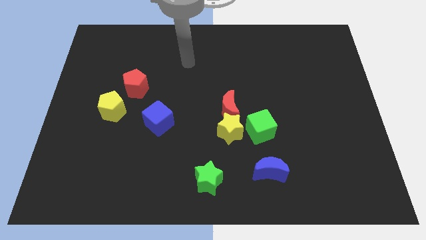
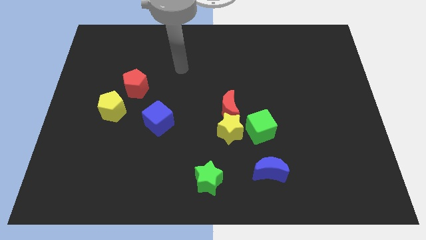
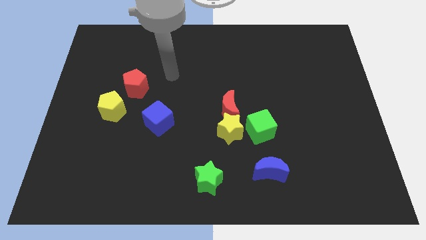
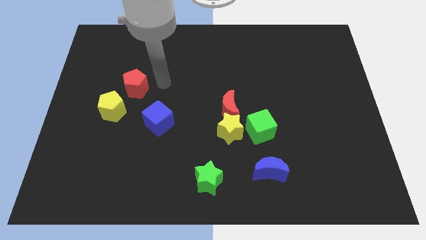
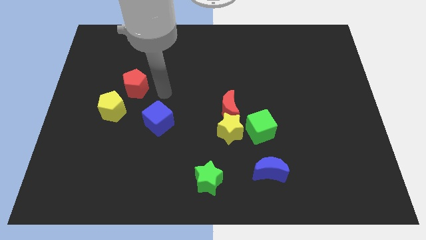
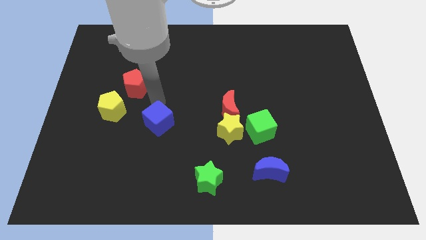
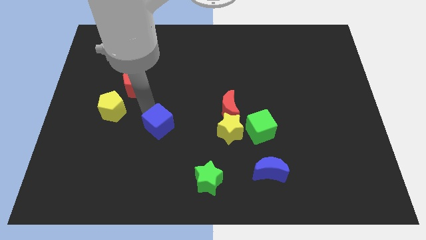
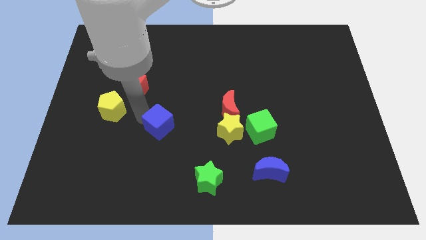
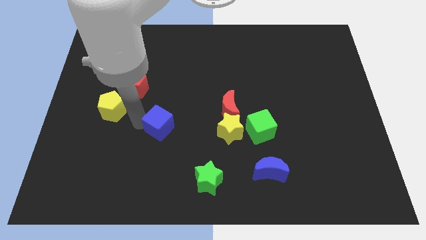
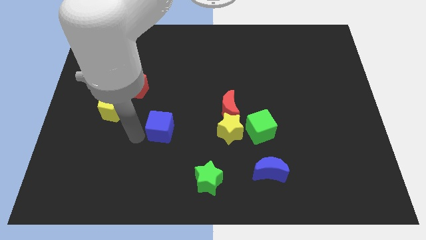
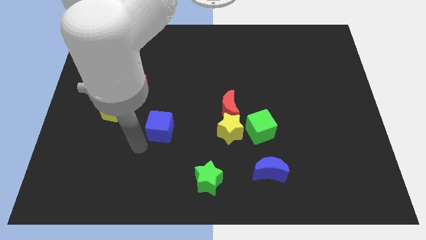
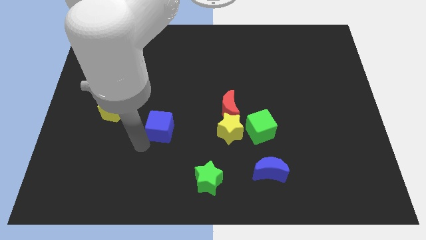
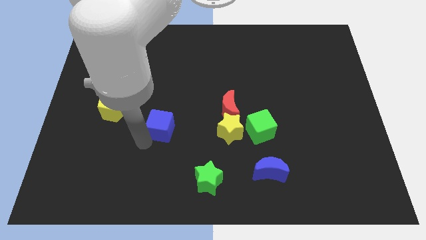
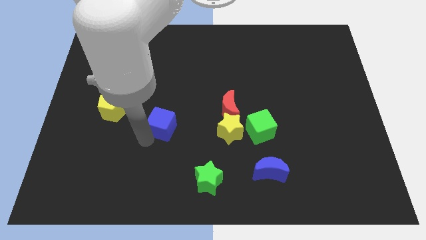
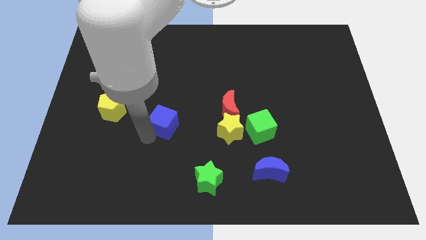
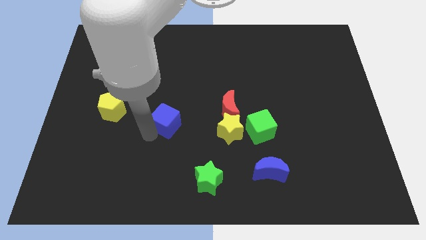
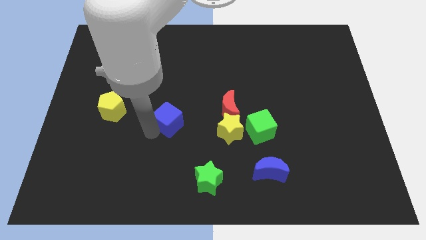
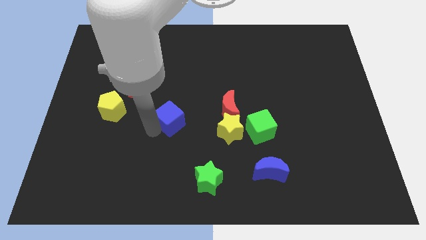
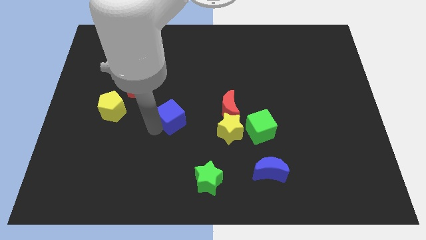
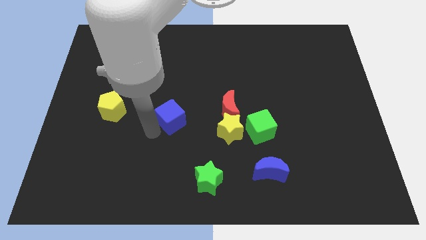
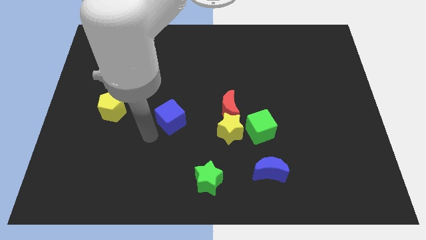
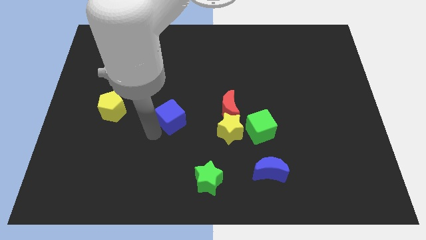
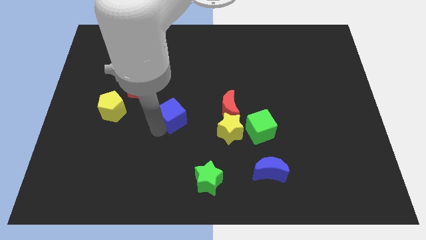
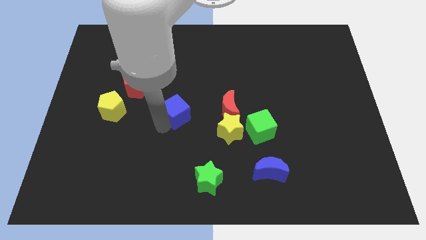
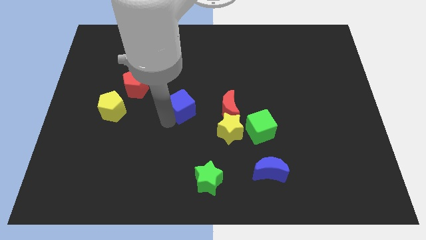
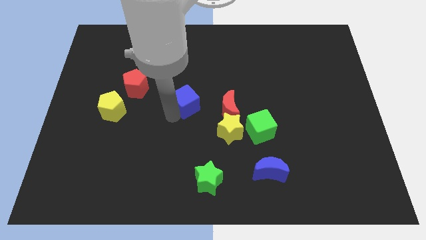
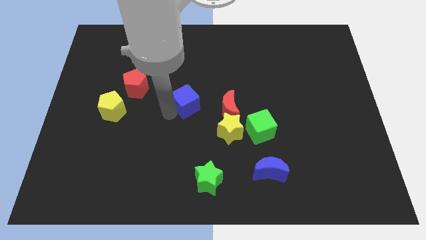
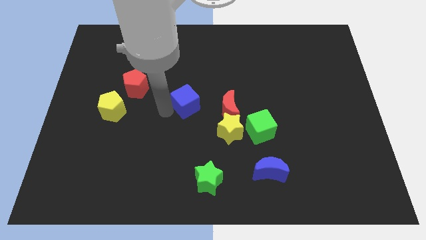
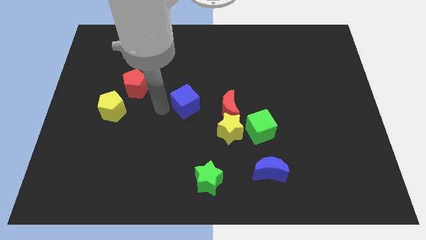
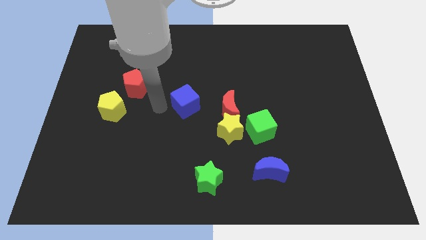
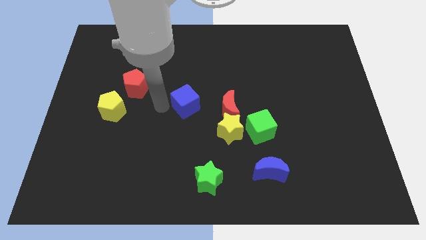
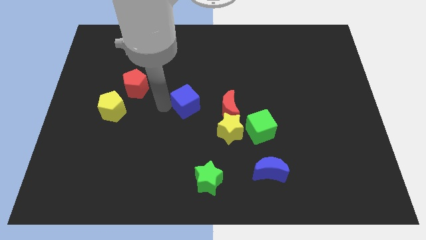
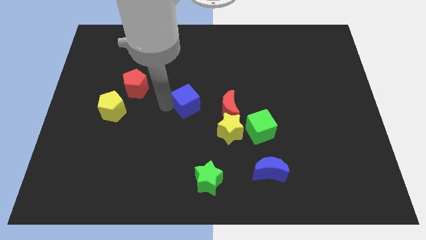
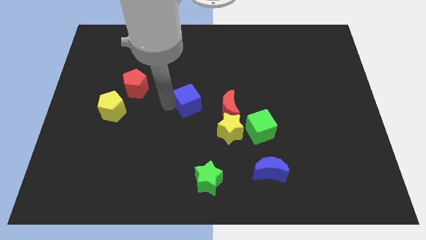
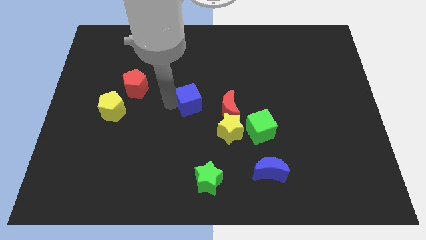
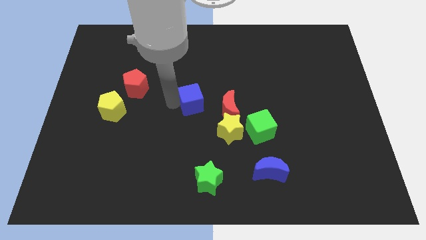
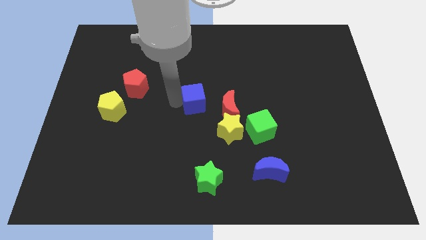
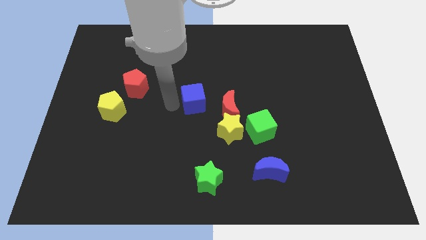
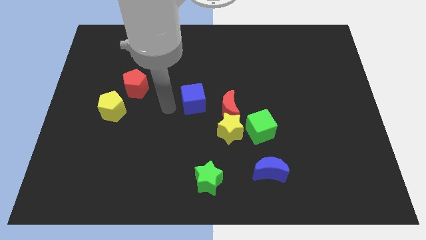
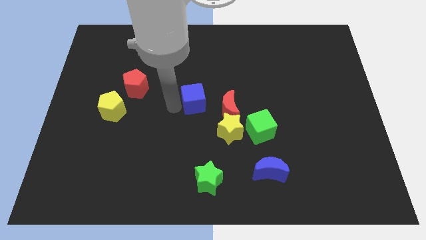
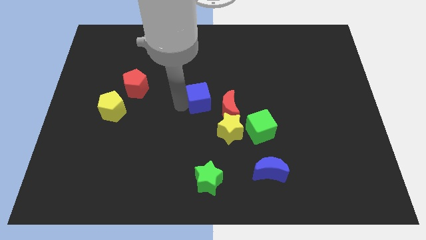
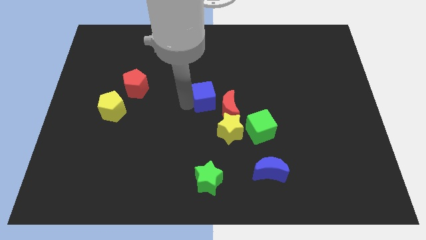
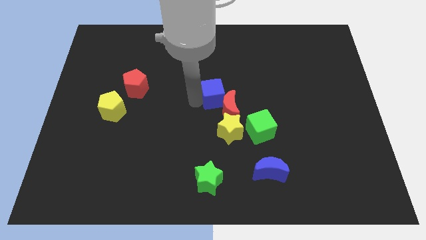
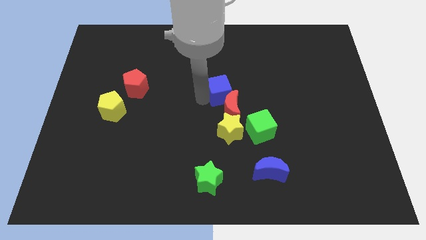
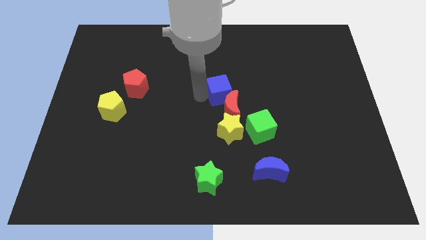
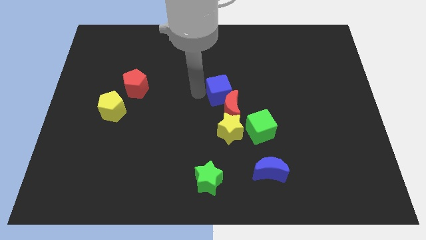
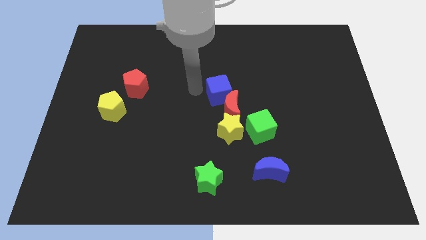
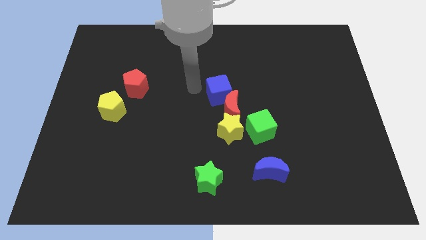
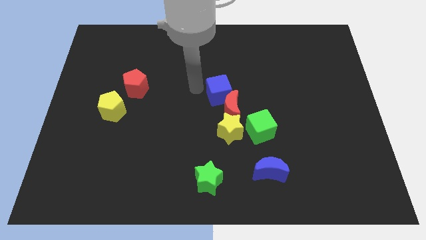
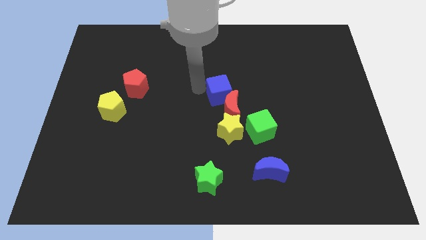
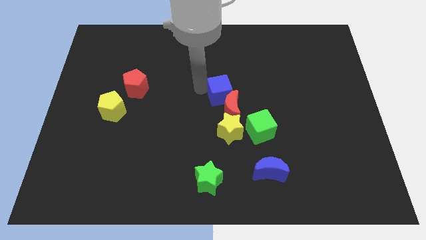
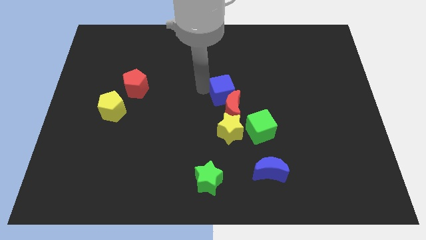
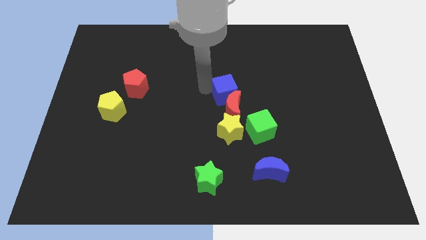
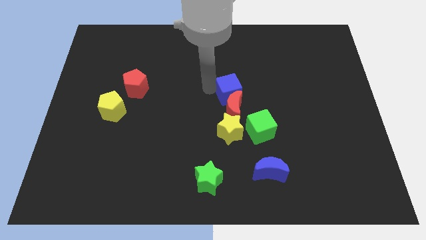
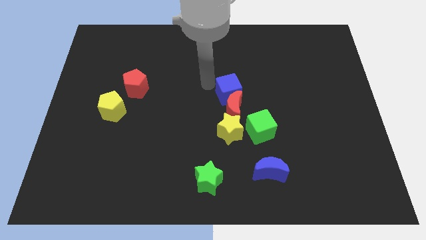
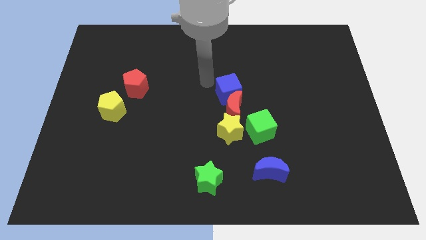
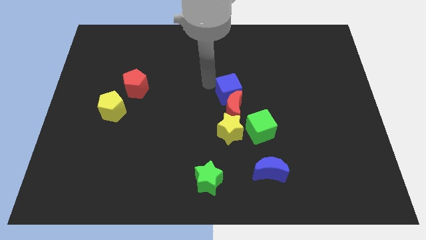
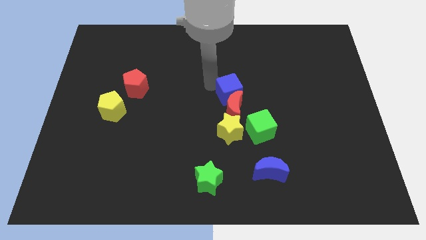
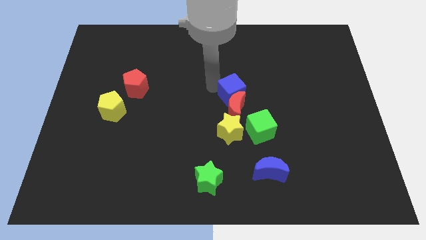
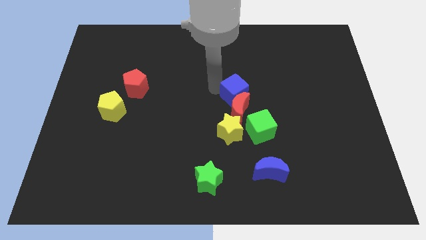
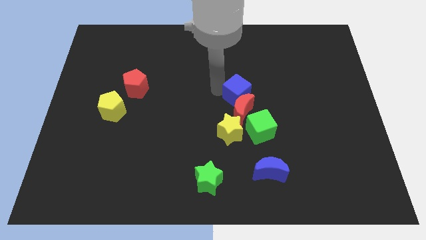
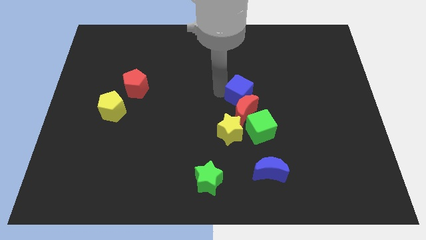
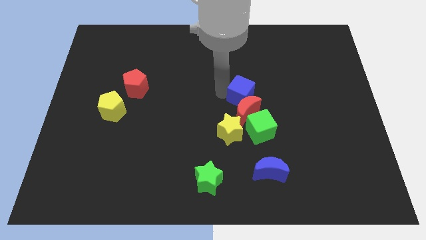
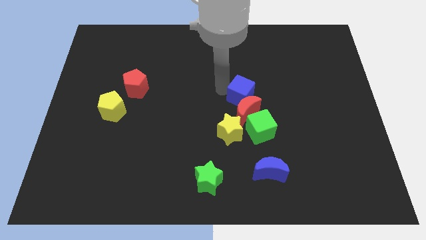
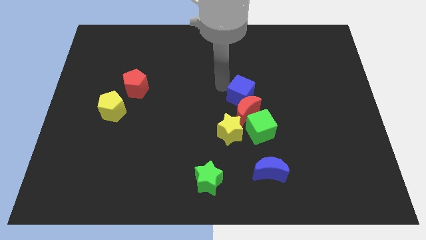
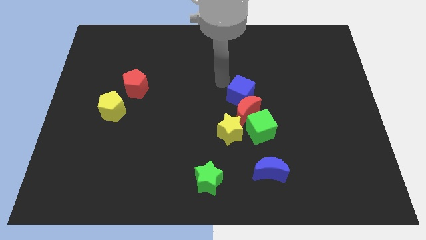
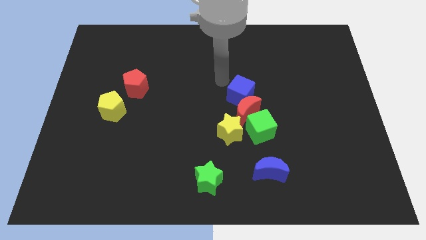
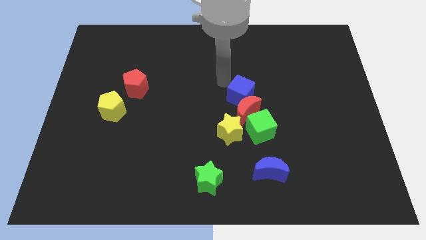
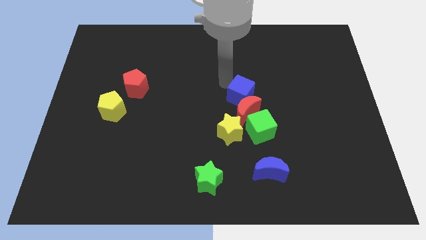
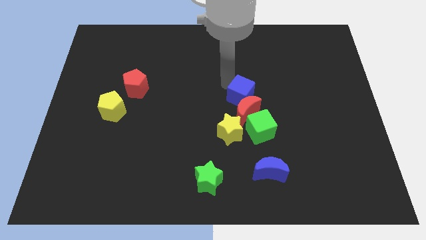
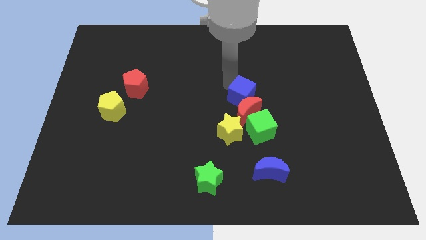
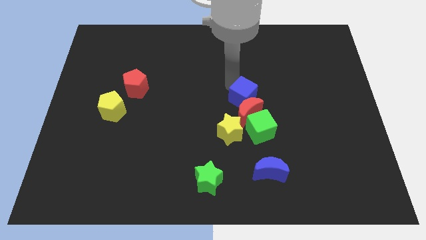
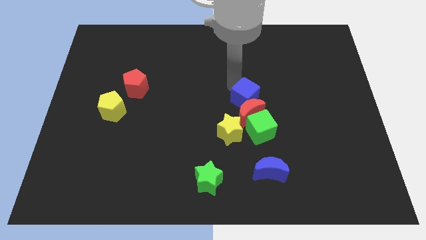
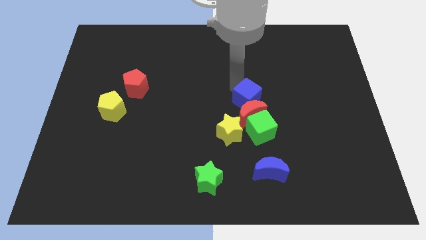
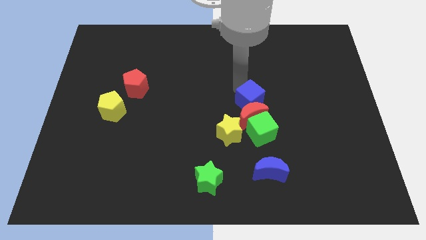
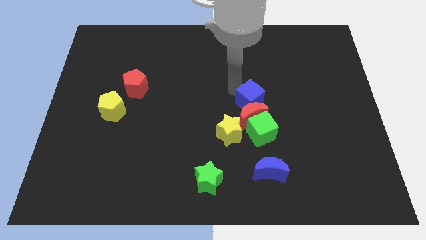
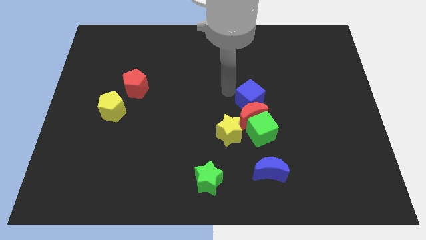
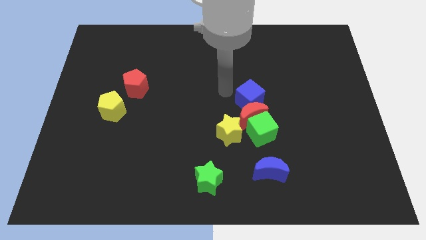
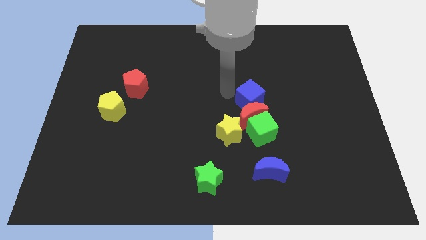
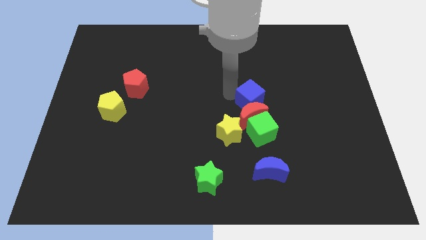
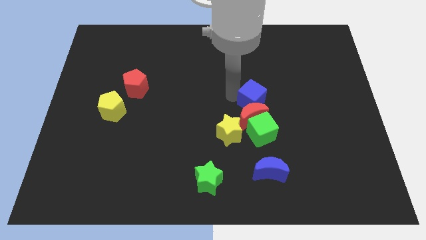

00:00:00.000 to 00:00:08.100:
push the blue cube right
